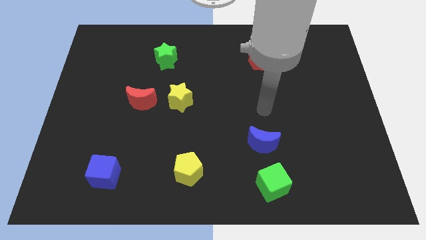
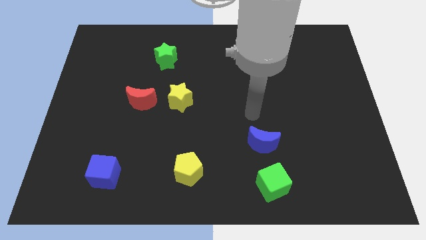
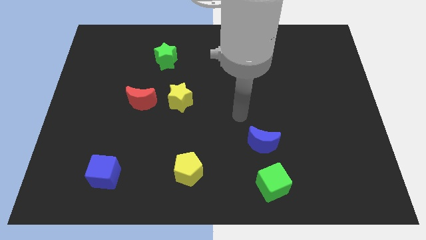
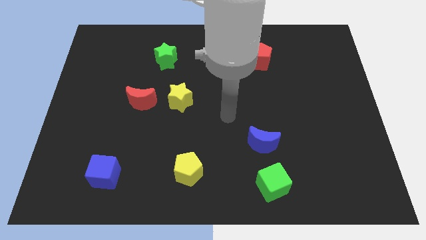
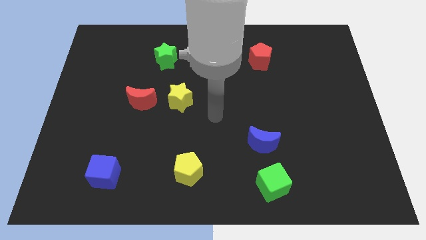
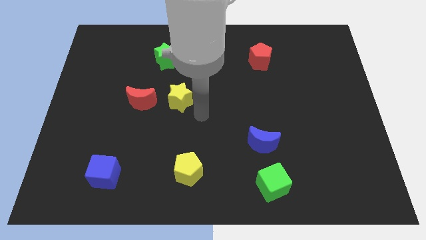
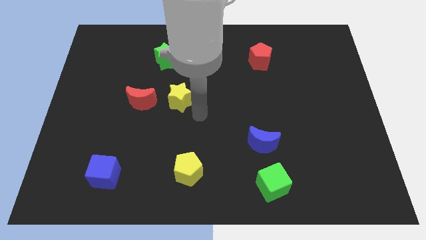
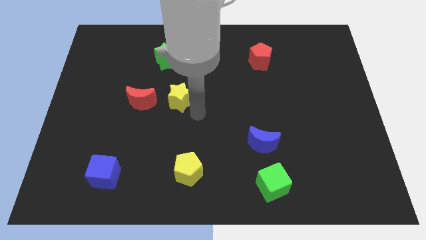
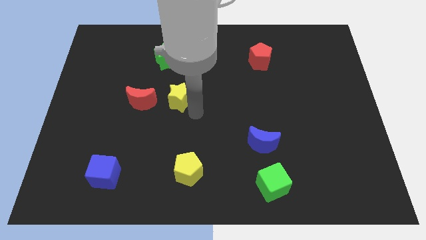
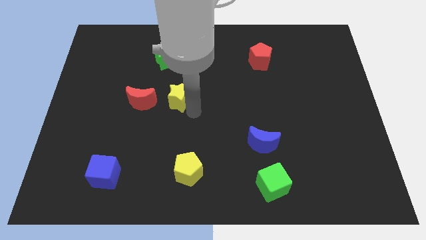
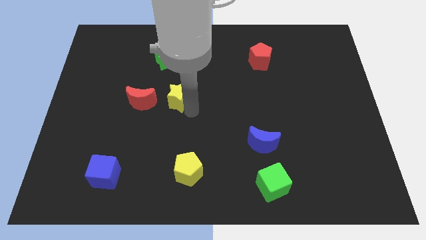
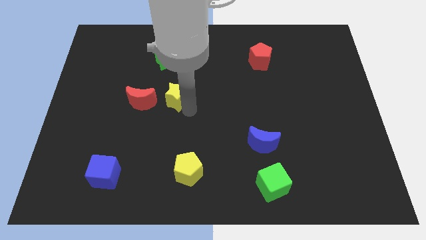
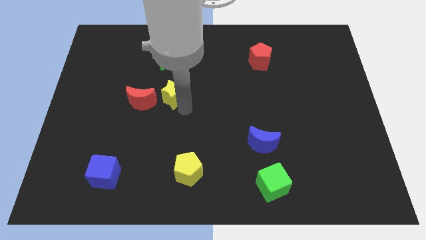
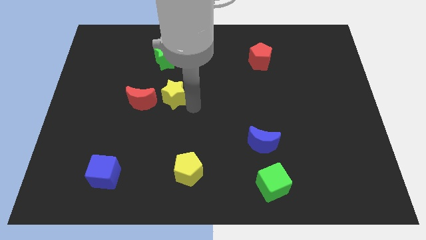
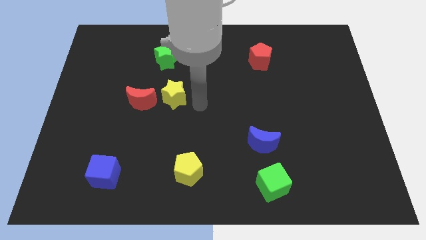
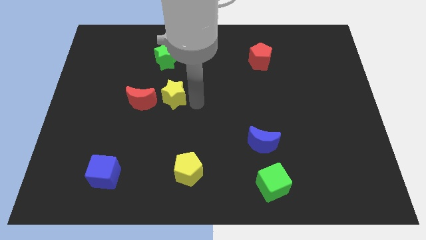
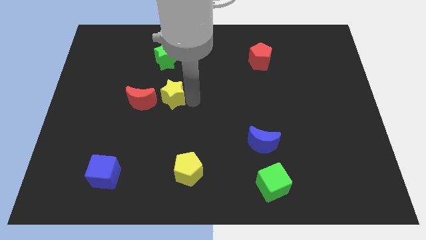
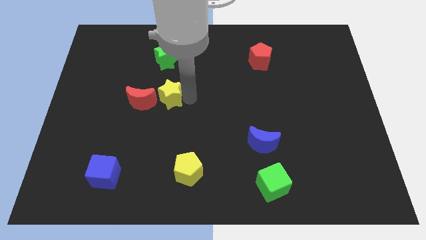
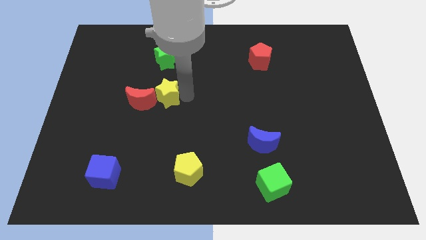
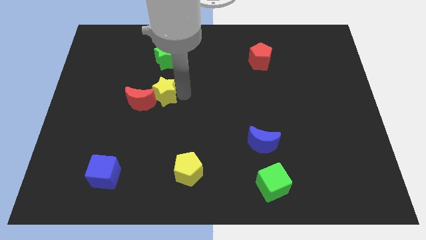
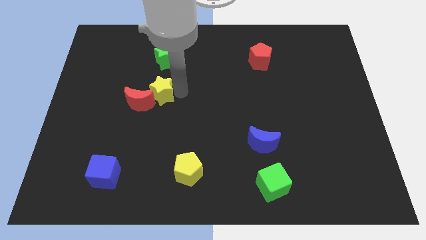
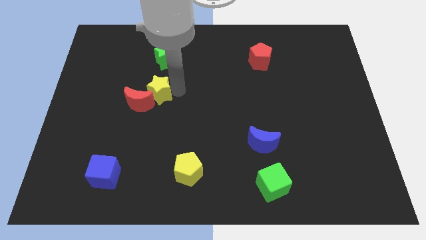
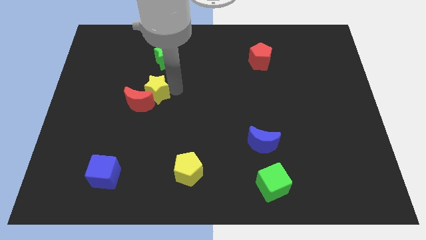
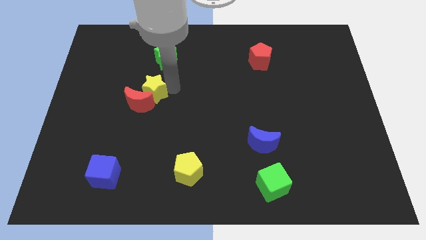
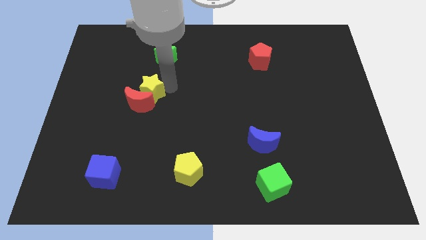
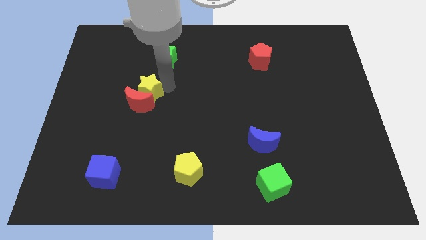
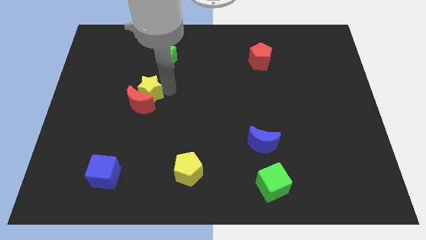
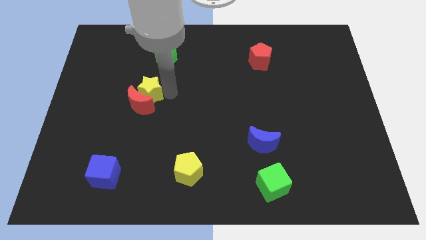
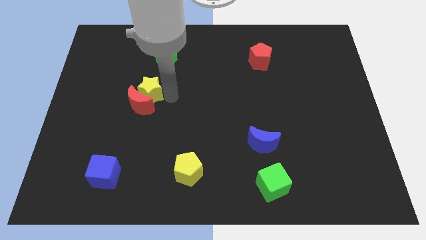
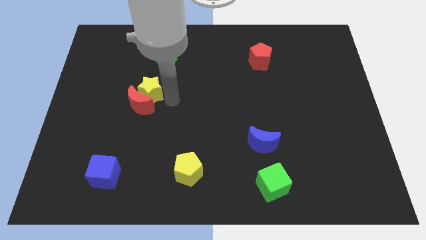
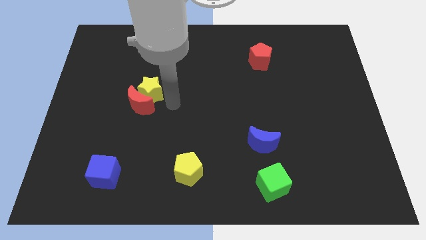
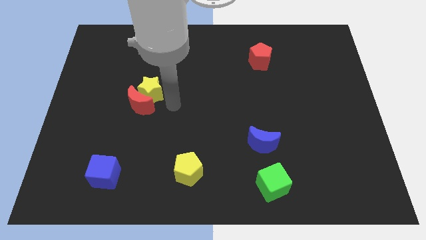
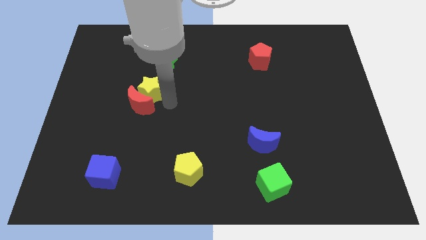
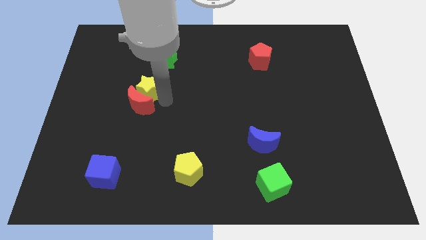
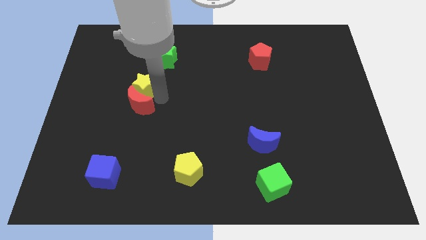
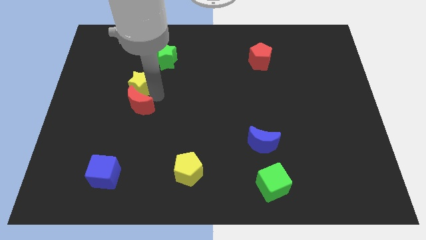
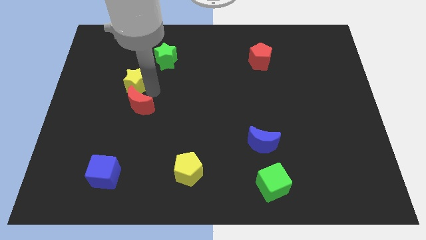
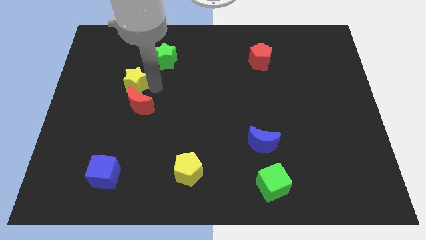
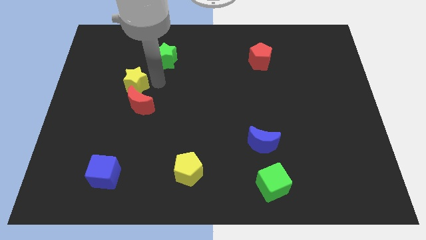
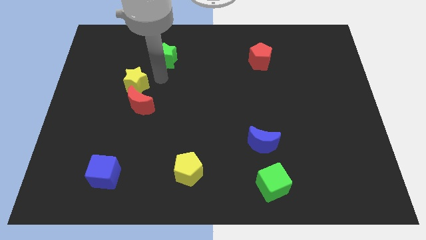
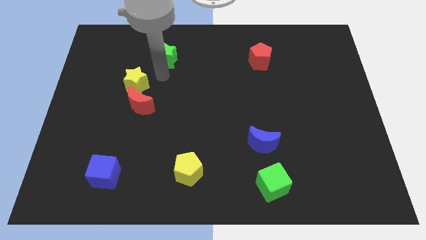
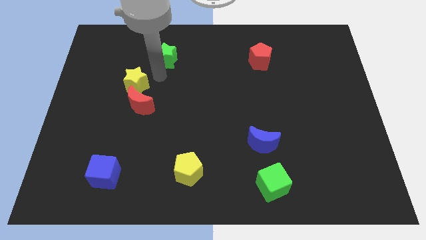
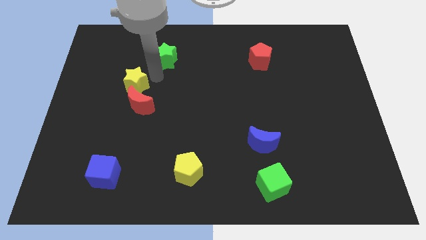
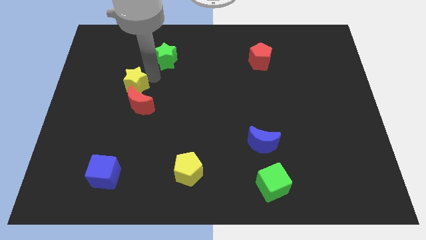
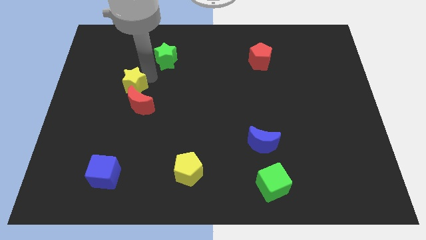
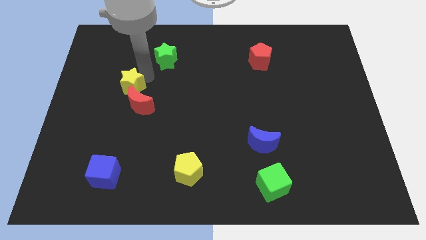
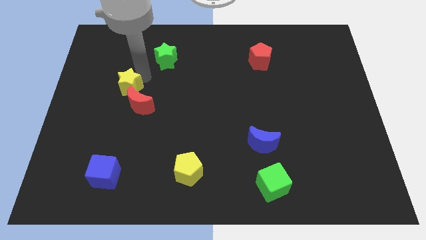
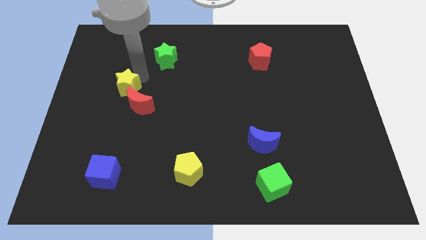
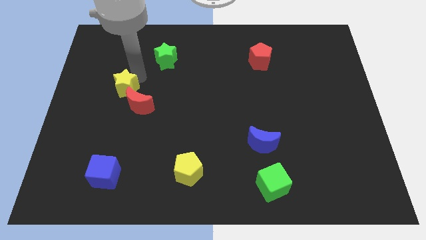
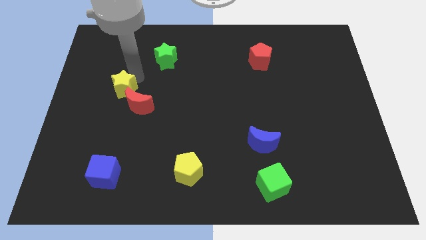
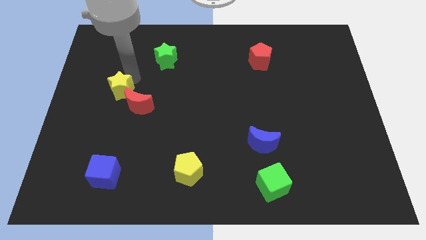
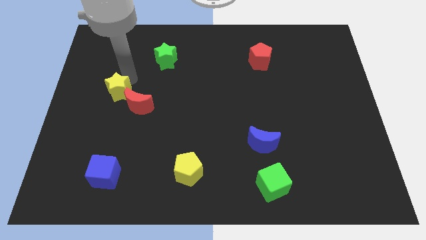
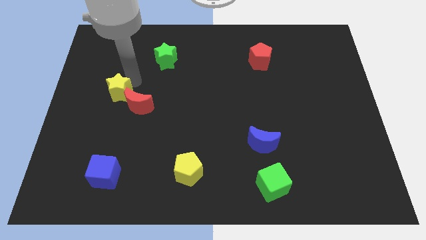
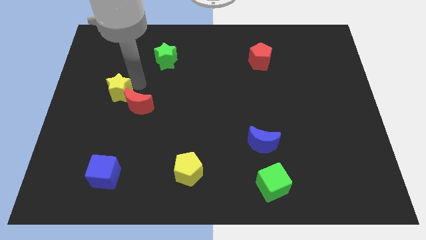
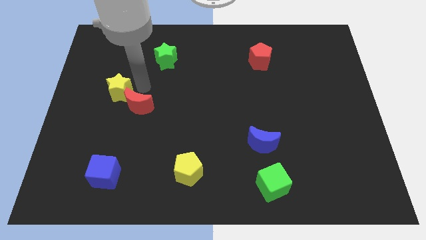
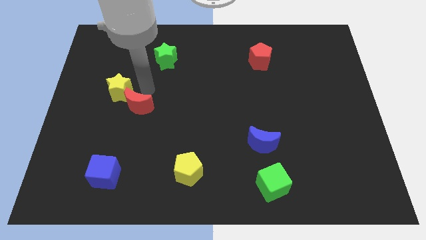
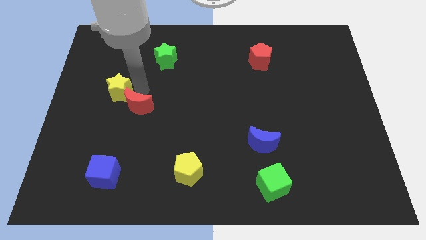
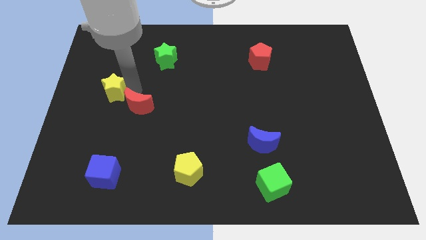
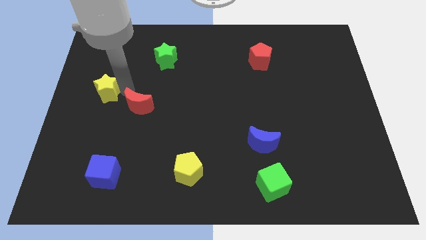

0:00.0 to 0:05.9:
push the yellow star to the left side
